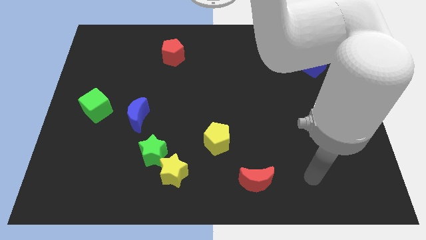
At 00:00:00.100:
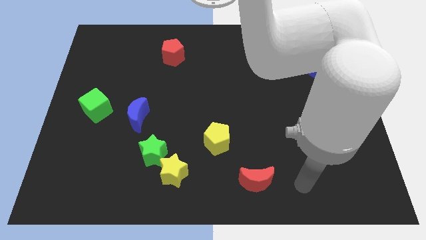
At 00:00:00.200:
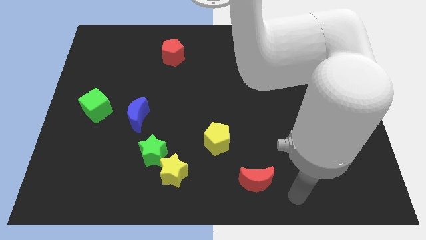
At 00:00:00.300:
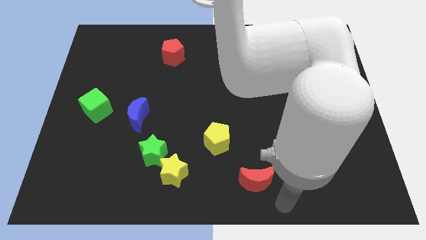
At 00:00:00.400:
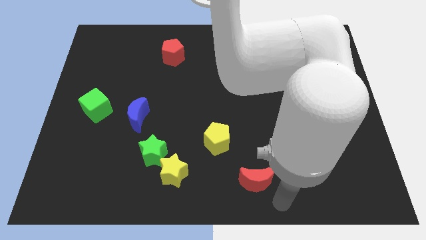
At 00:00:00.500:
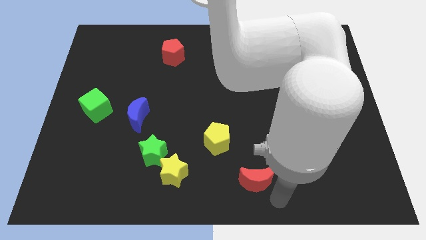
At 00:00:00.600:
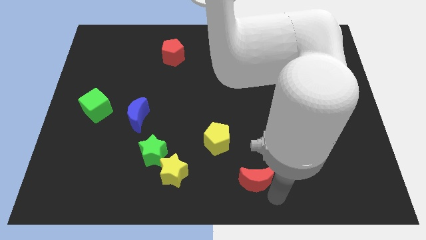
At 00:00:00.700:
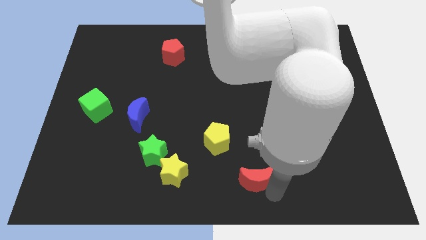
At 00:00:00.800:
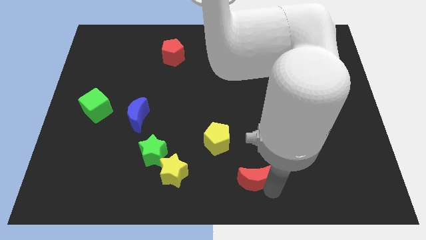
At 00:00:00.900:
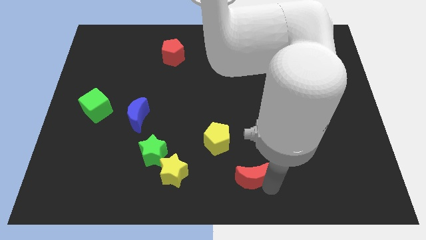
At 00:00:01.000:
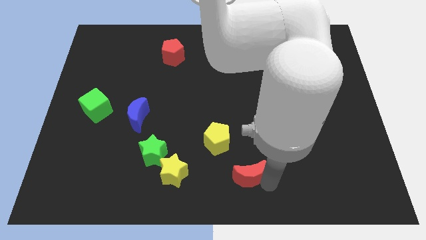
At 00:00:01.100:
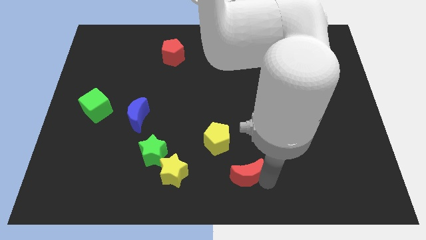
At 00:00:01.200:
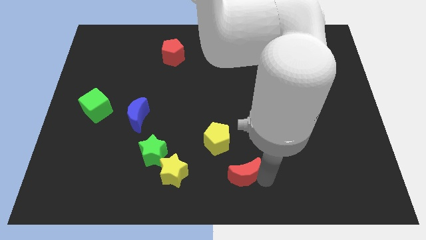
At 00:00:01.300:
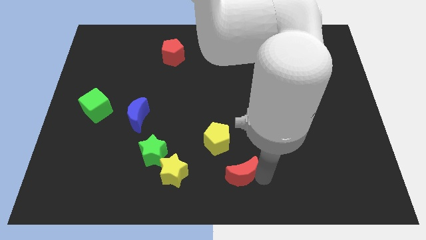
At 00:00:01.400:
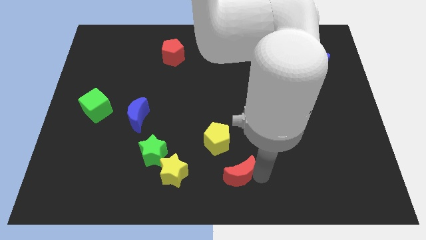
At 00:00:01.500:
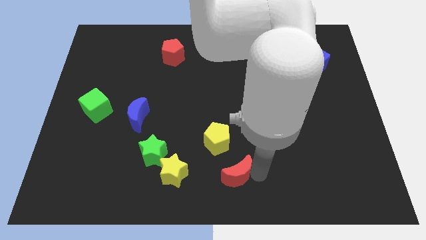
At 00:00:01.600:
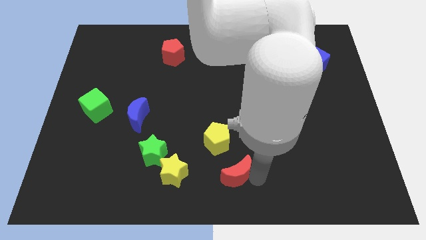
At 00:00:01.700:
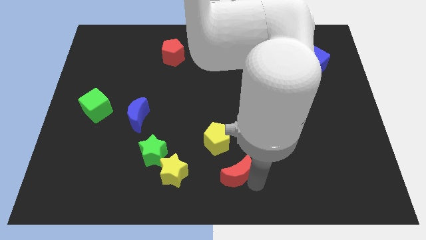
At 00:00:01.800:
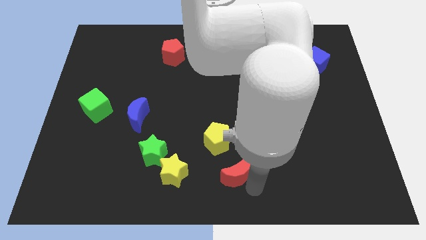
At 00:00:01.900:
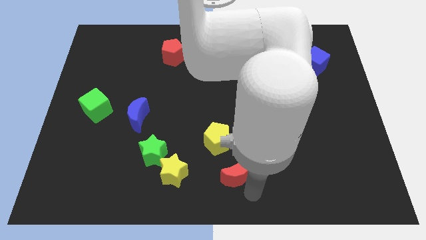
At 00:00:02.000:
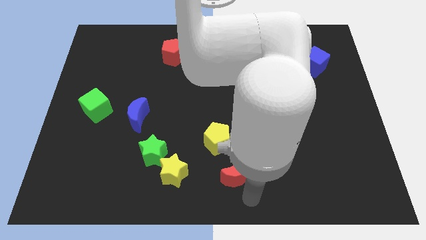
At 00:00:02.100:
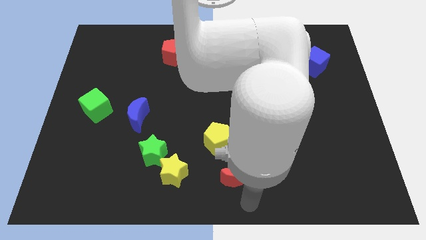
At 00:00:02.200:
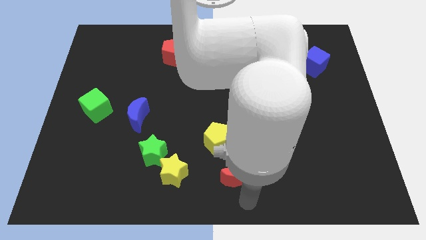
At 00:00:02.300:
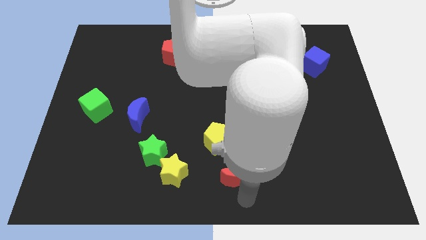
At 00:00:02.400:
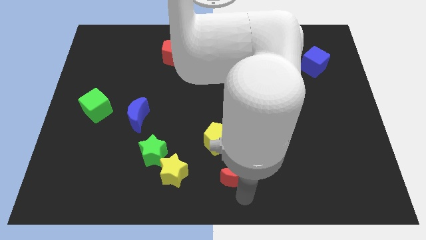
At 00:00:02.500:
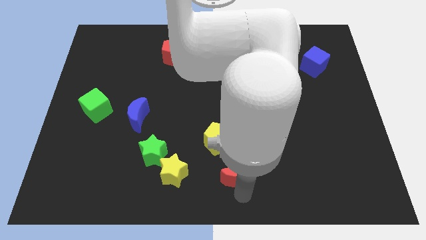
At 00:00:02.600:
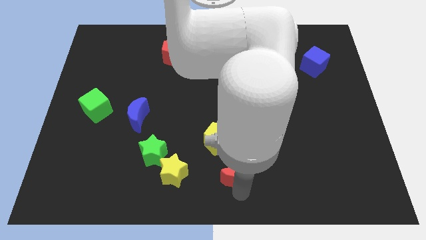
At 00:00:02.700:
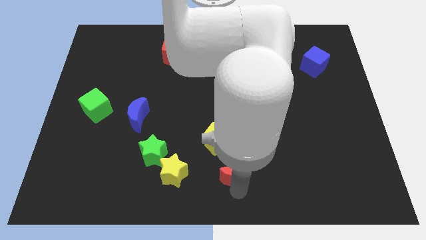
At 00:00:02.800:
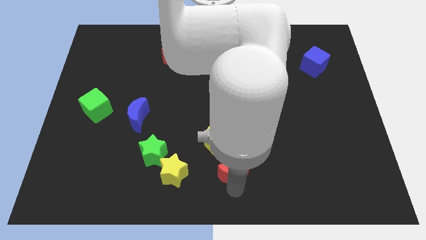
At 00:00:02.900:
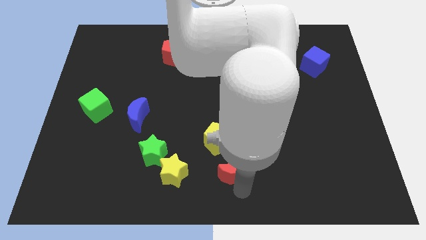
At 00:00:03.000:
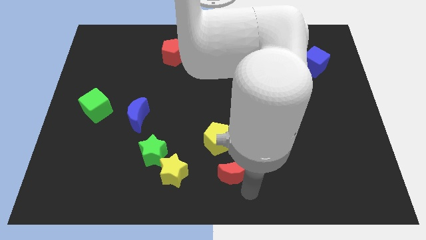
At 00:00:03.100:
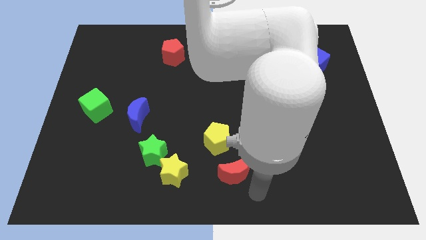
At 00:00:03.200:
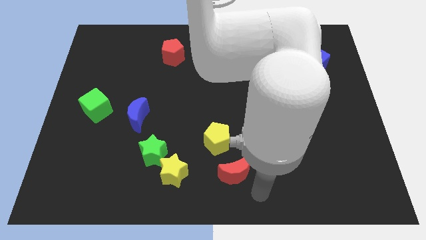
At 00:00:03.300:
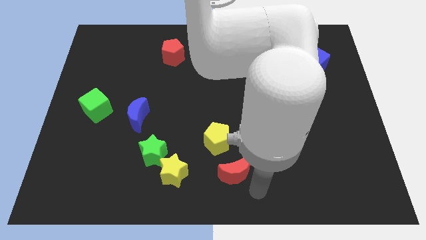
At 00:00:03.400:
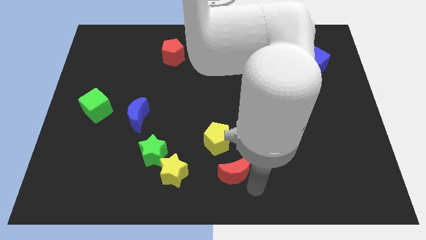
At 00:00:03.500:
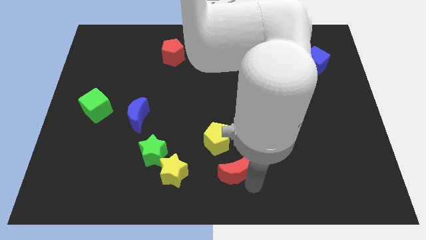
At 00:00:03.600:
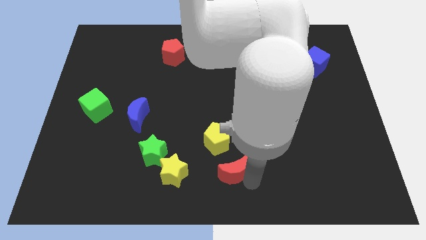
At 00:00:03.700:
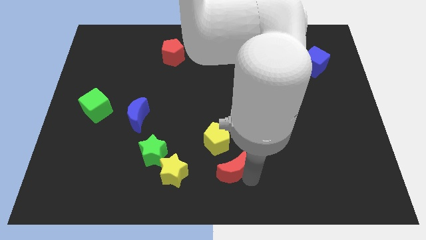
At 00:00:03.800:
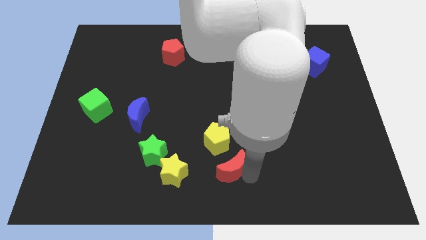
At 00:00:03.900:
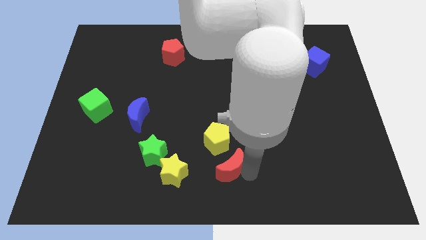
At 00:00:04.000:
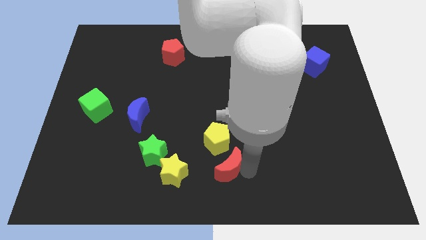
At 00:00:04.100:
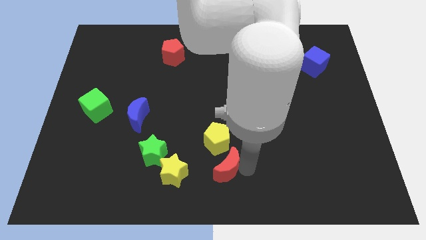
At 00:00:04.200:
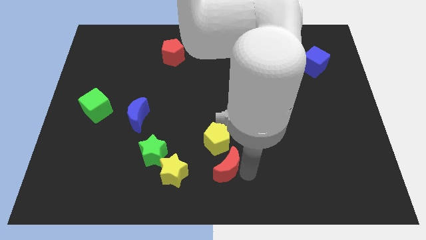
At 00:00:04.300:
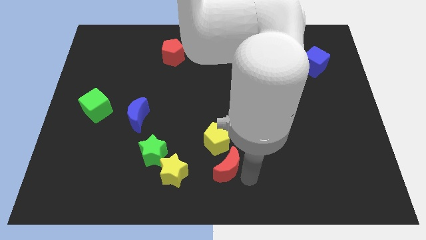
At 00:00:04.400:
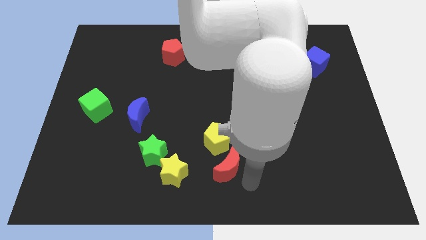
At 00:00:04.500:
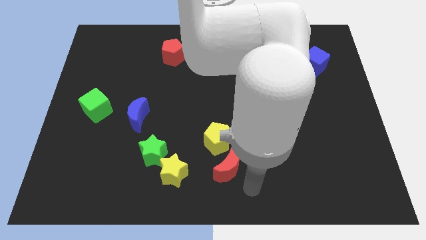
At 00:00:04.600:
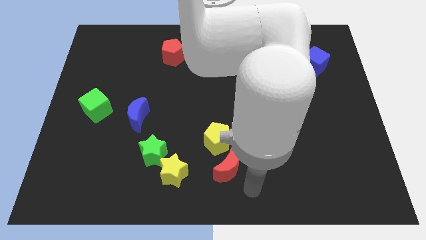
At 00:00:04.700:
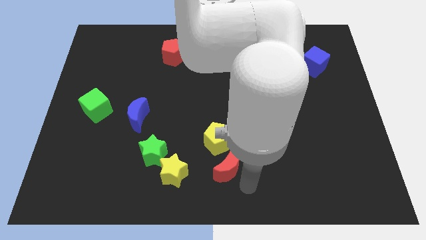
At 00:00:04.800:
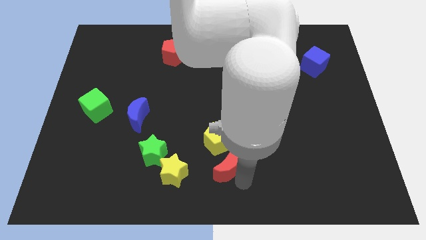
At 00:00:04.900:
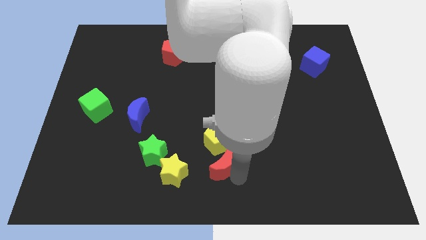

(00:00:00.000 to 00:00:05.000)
slightly move the red moon up and to the left diagonally

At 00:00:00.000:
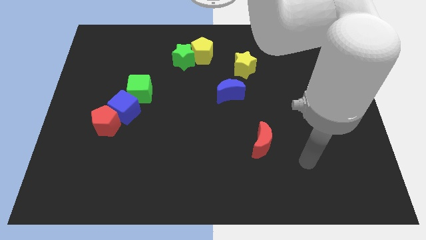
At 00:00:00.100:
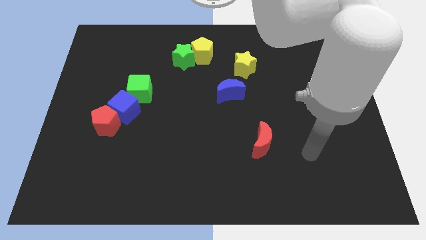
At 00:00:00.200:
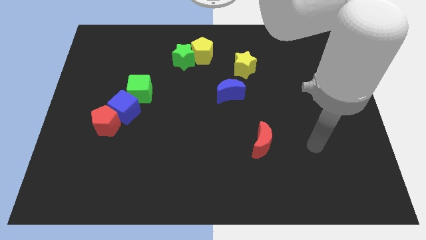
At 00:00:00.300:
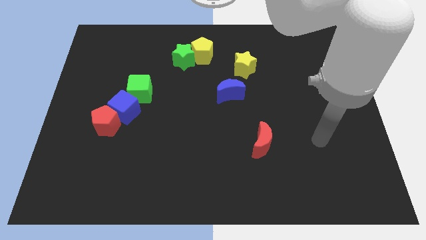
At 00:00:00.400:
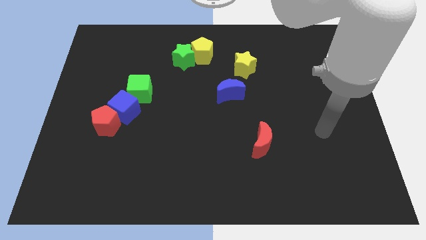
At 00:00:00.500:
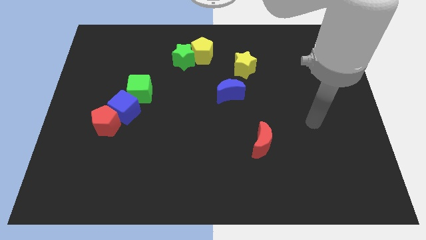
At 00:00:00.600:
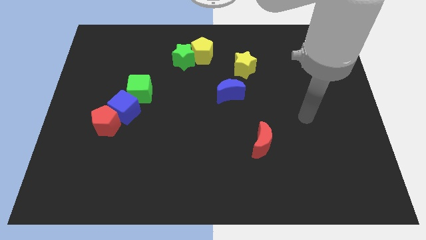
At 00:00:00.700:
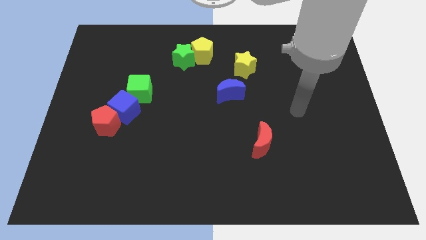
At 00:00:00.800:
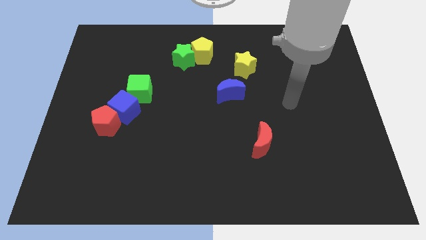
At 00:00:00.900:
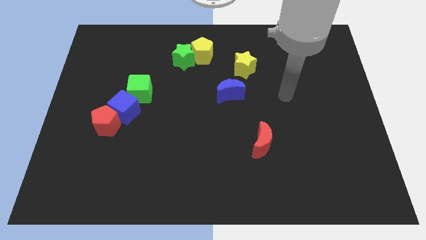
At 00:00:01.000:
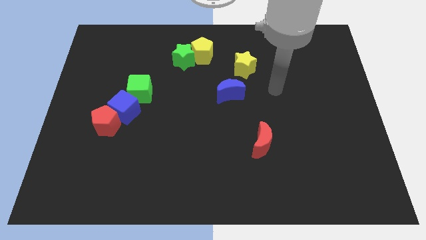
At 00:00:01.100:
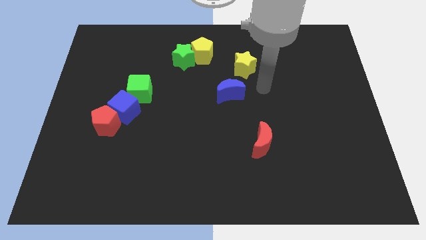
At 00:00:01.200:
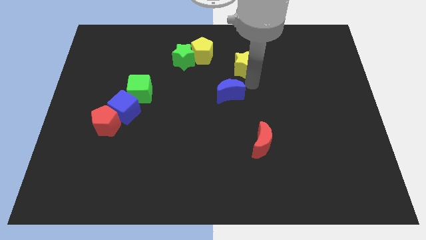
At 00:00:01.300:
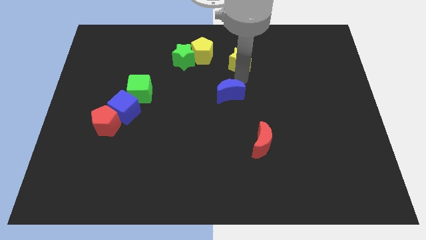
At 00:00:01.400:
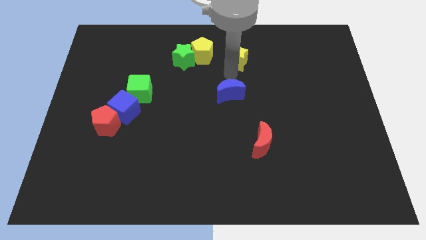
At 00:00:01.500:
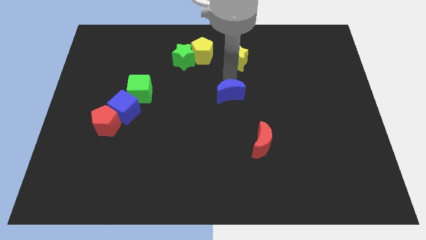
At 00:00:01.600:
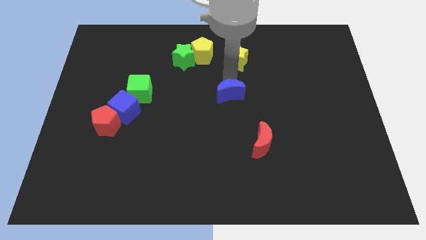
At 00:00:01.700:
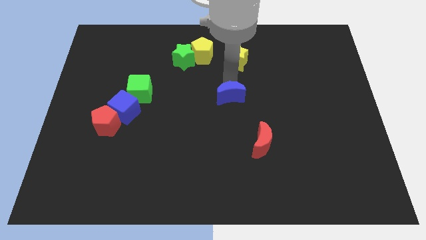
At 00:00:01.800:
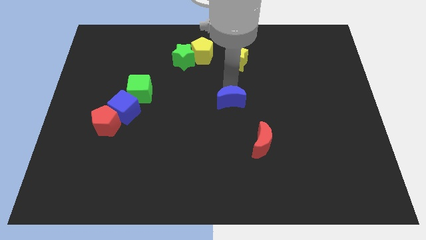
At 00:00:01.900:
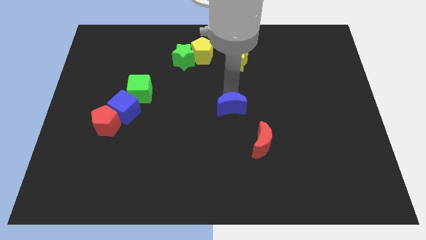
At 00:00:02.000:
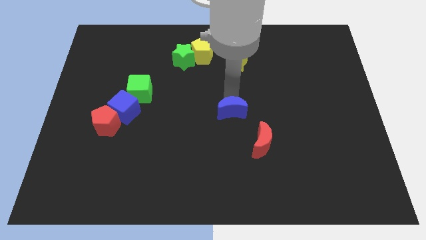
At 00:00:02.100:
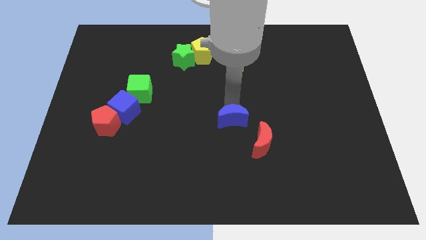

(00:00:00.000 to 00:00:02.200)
move the blue moon downwards somewhat

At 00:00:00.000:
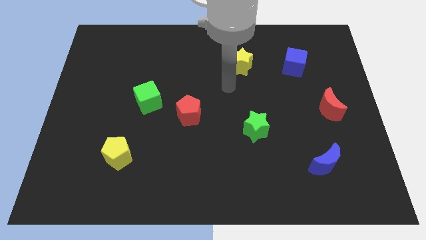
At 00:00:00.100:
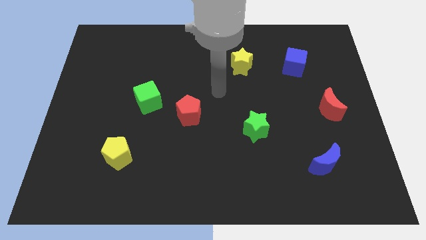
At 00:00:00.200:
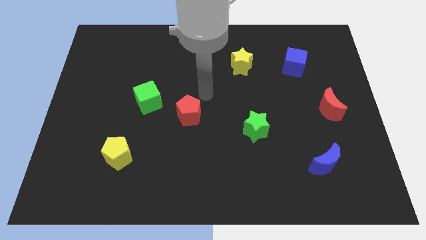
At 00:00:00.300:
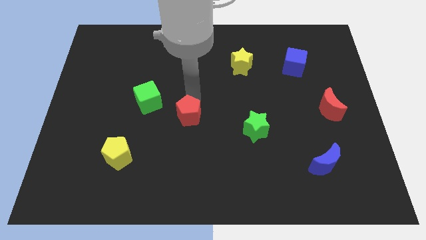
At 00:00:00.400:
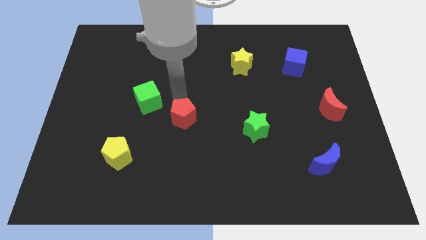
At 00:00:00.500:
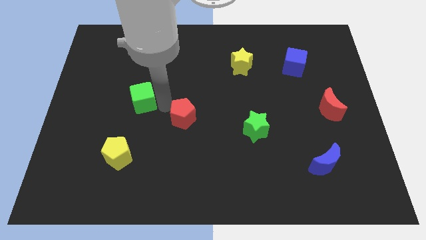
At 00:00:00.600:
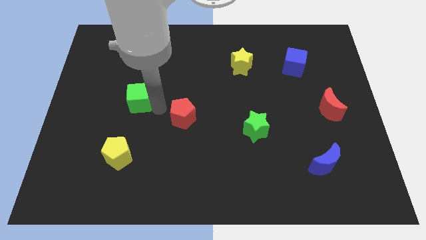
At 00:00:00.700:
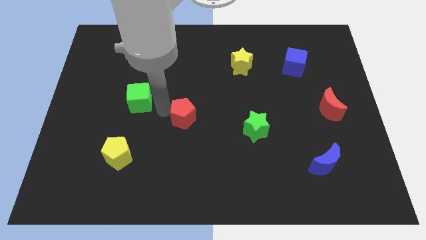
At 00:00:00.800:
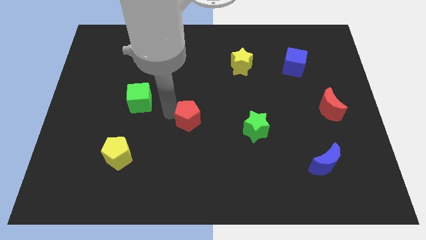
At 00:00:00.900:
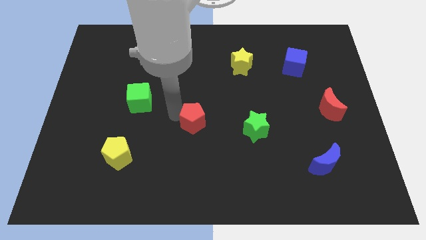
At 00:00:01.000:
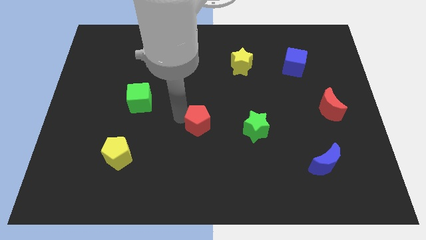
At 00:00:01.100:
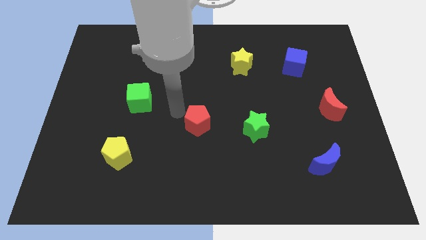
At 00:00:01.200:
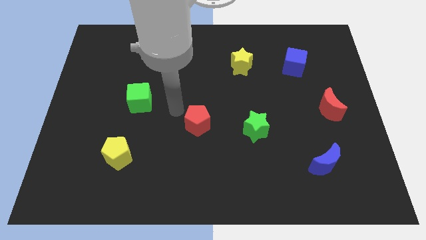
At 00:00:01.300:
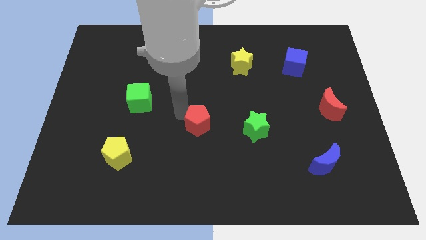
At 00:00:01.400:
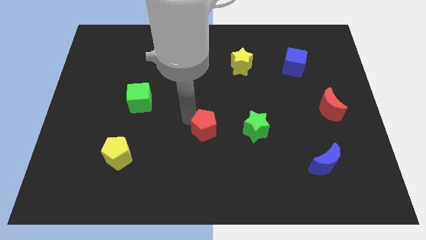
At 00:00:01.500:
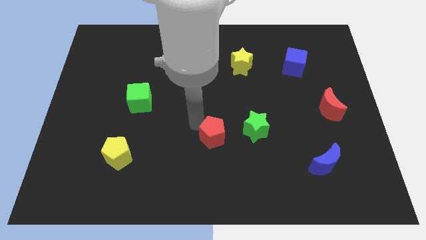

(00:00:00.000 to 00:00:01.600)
move the red pentagon down and right slightly
